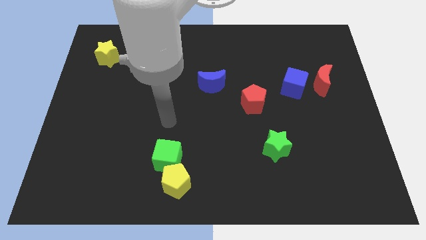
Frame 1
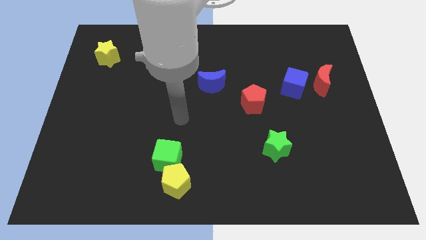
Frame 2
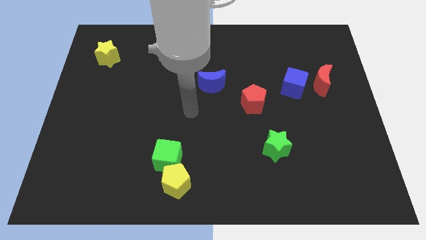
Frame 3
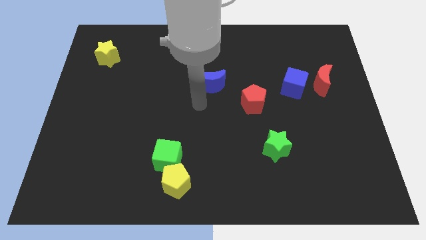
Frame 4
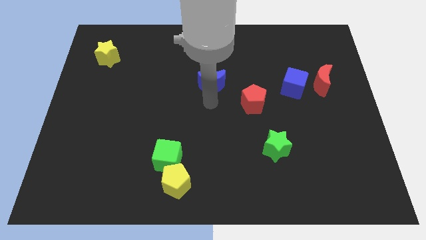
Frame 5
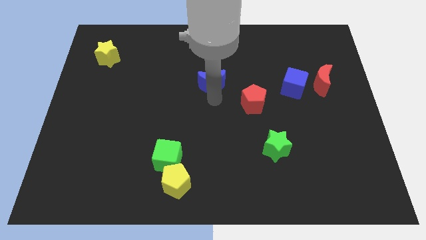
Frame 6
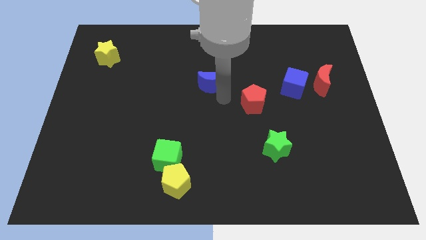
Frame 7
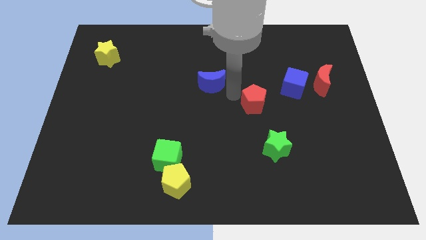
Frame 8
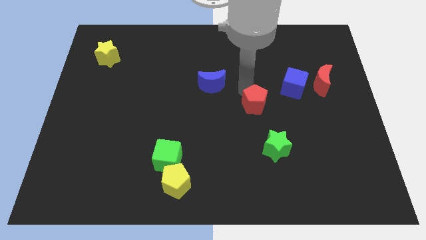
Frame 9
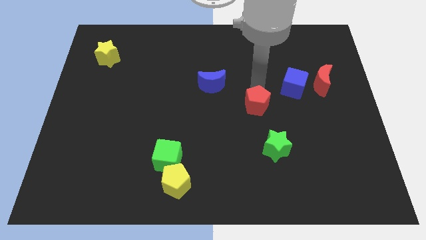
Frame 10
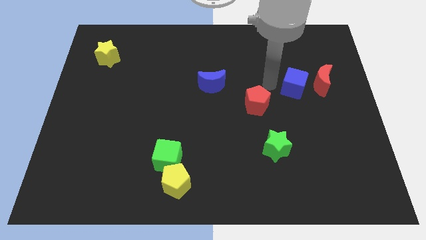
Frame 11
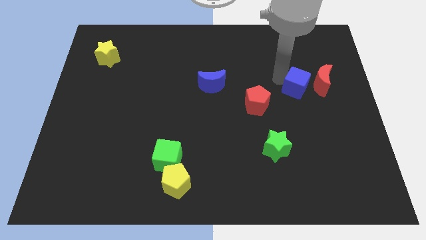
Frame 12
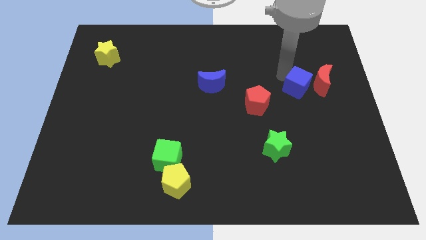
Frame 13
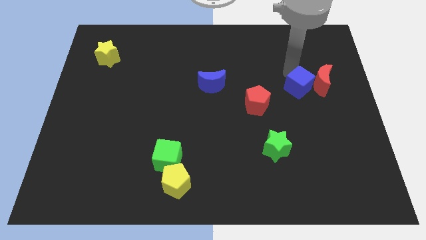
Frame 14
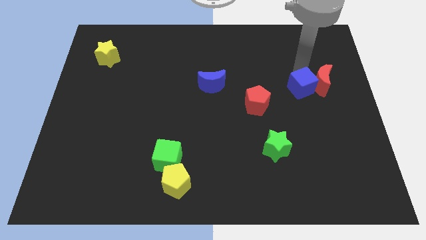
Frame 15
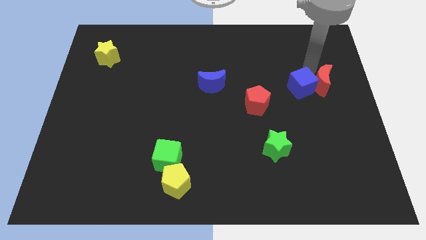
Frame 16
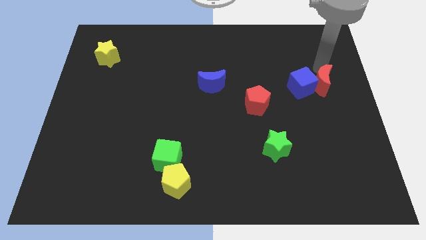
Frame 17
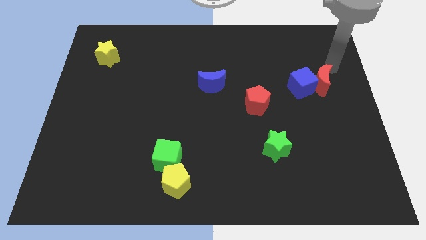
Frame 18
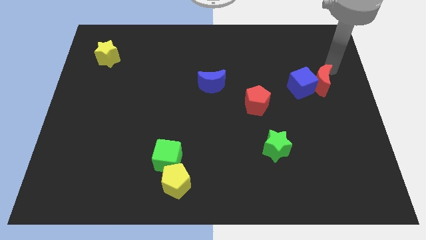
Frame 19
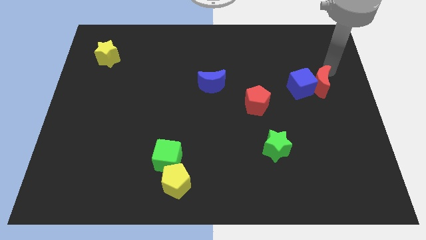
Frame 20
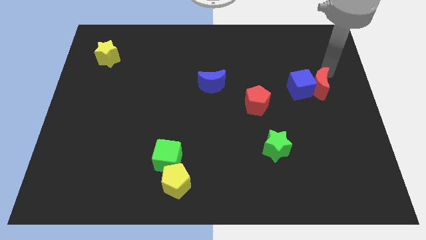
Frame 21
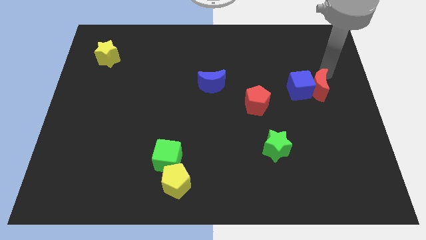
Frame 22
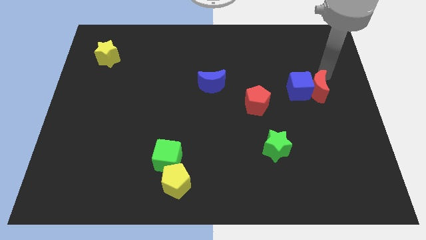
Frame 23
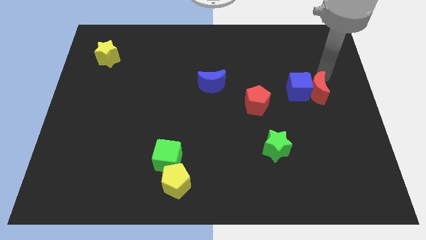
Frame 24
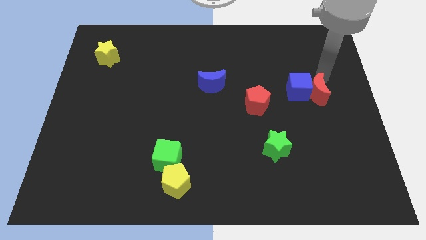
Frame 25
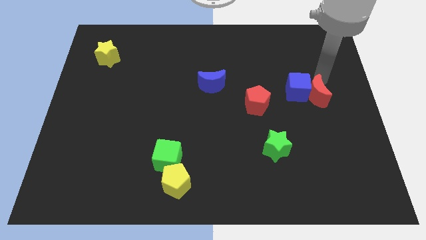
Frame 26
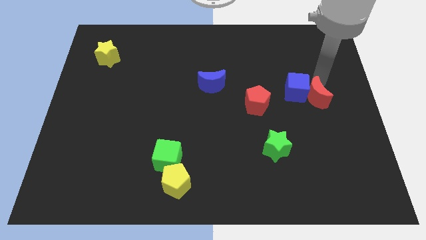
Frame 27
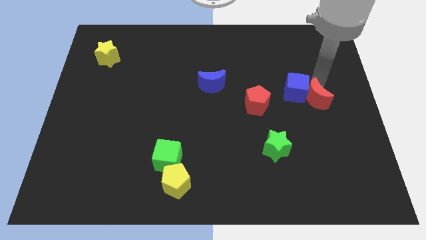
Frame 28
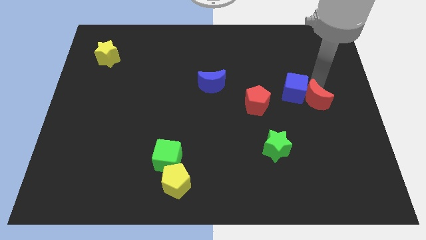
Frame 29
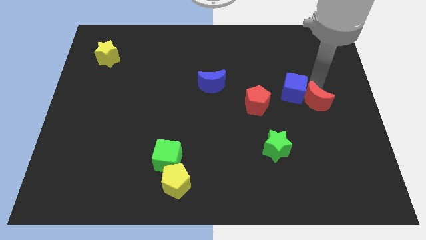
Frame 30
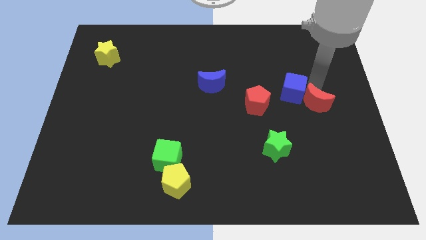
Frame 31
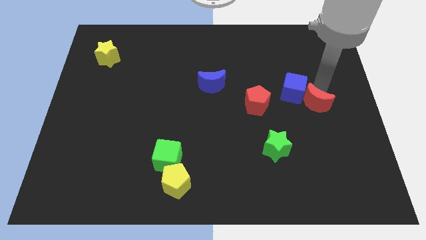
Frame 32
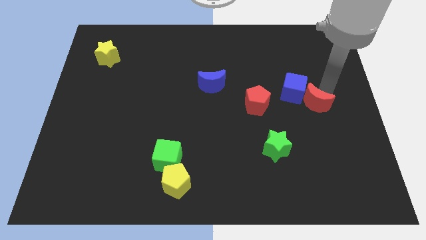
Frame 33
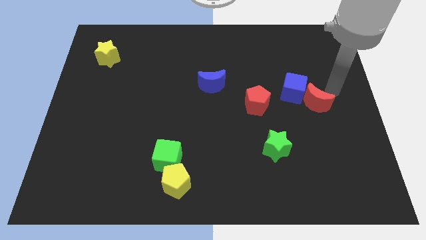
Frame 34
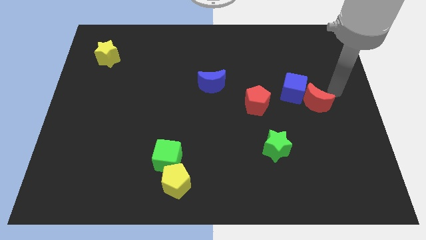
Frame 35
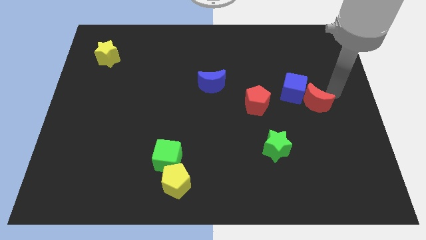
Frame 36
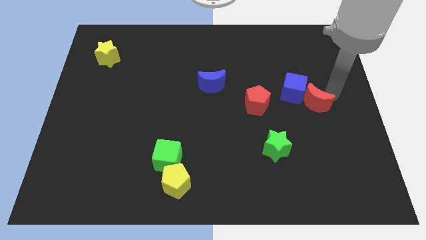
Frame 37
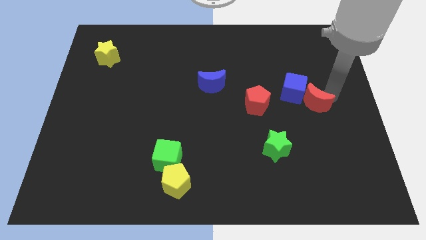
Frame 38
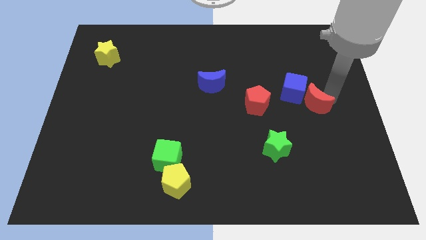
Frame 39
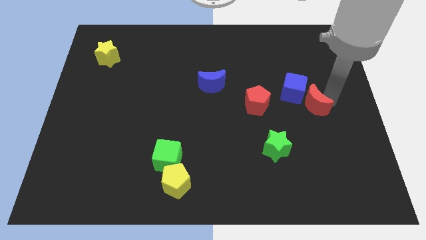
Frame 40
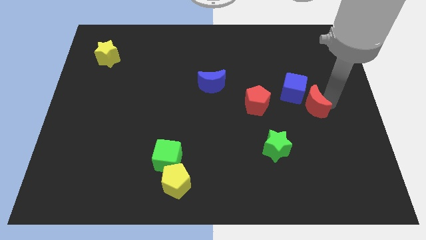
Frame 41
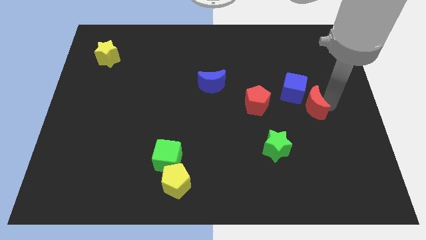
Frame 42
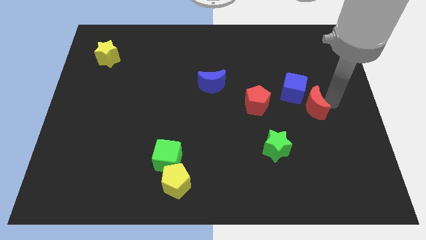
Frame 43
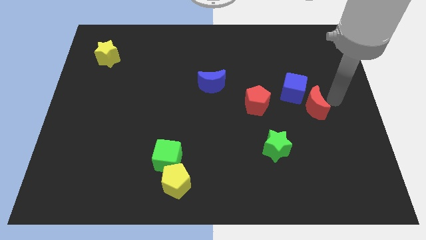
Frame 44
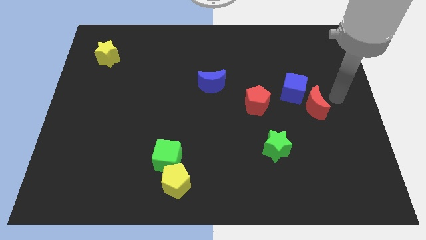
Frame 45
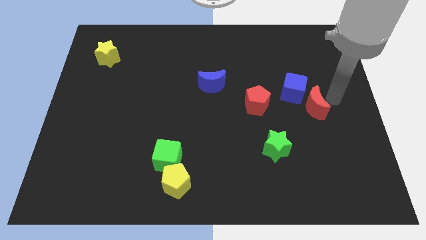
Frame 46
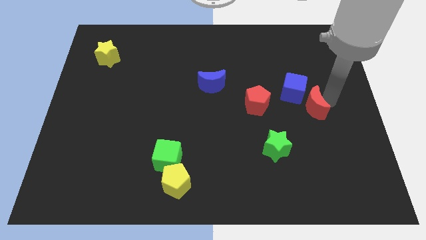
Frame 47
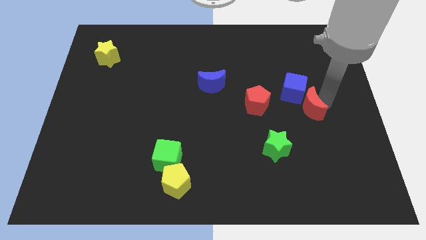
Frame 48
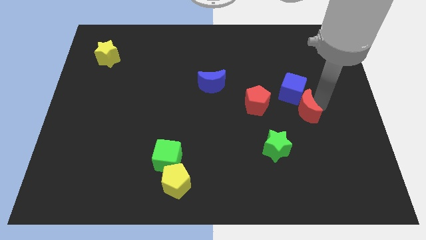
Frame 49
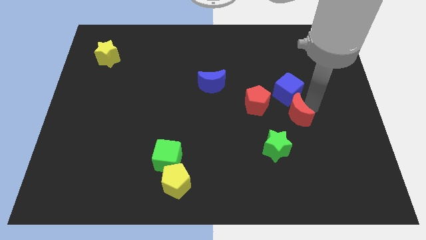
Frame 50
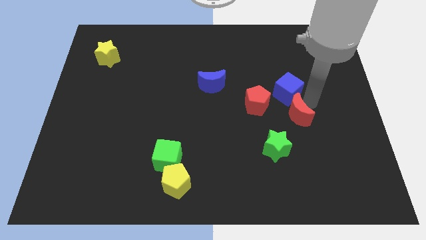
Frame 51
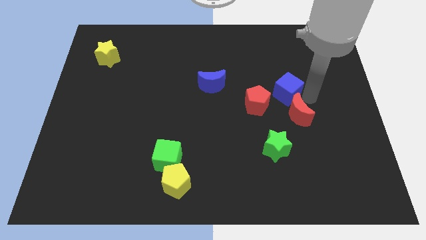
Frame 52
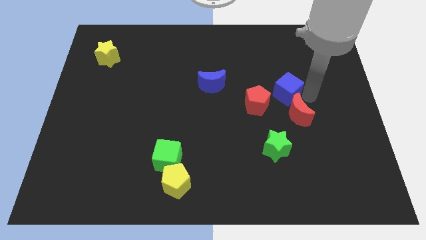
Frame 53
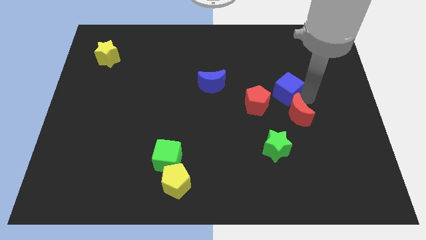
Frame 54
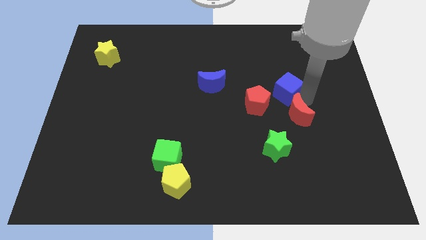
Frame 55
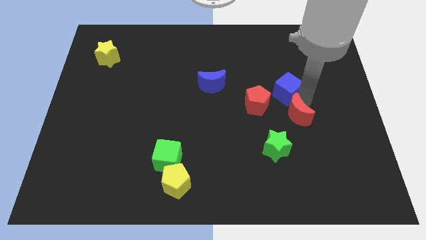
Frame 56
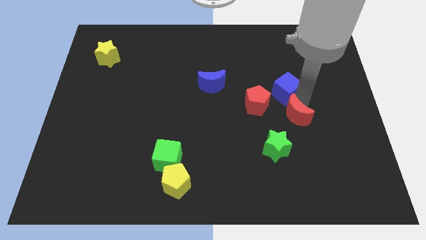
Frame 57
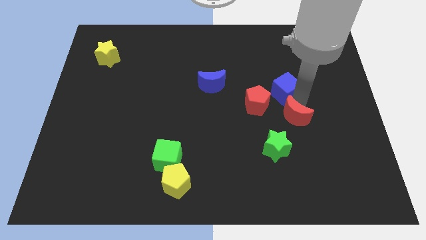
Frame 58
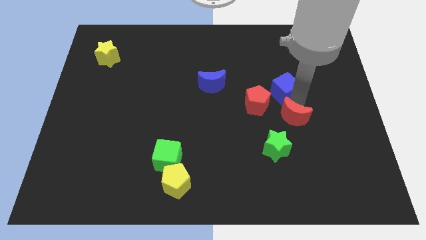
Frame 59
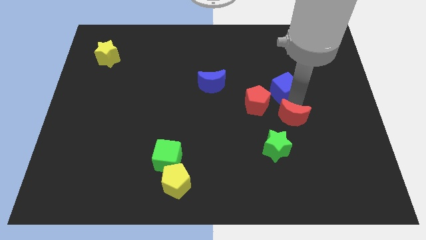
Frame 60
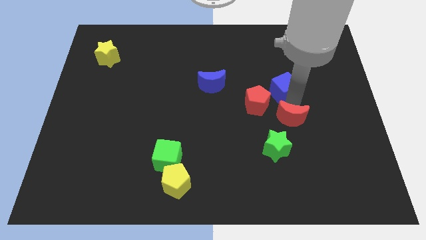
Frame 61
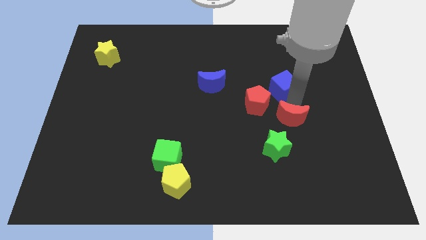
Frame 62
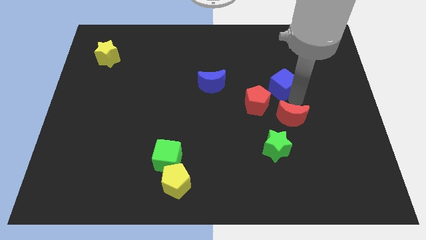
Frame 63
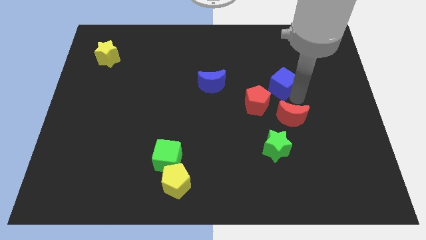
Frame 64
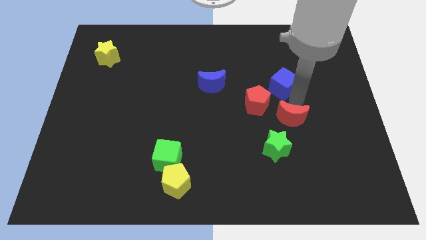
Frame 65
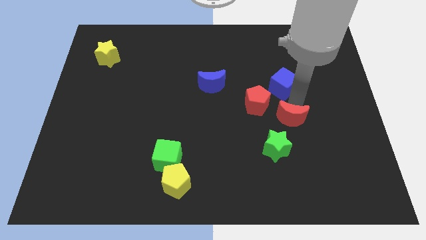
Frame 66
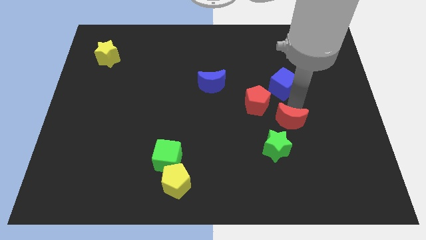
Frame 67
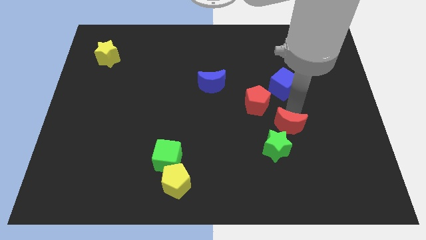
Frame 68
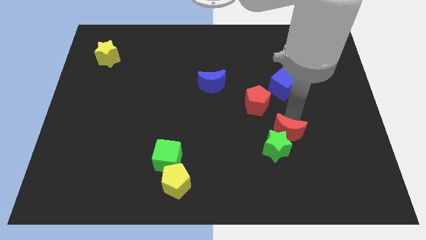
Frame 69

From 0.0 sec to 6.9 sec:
put the red moon to the green star
